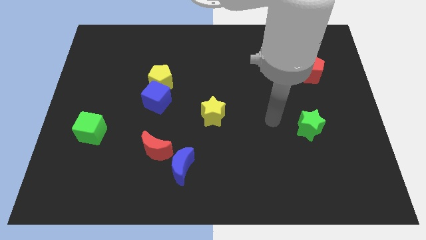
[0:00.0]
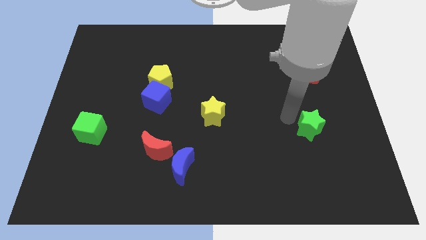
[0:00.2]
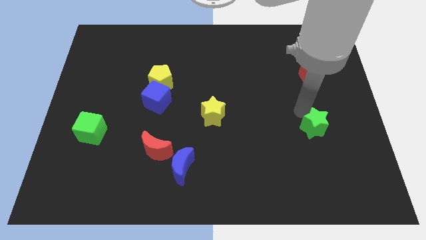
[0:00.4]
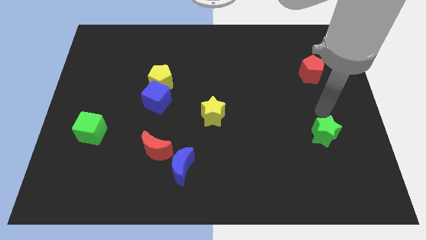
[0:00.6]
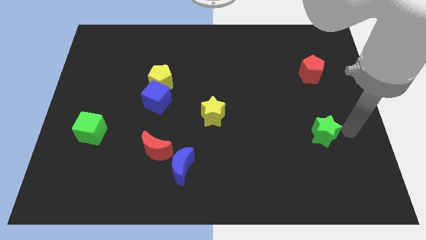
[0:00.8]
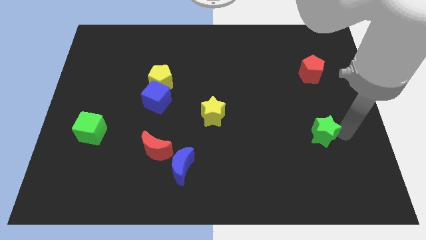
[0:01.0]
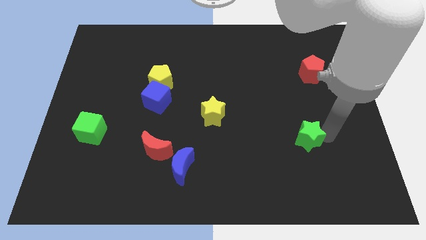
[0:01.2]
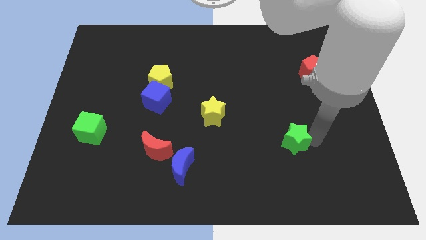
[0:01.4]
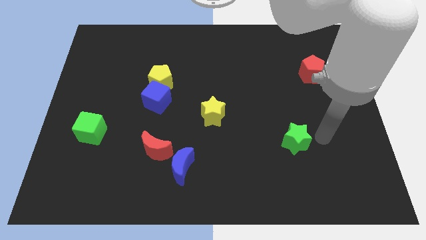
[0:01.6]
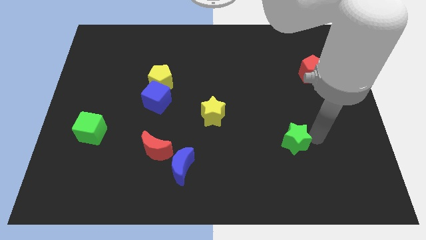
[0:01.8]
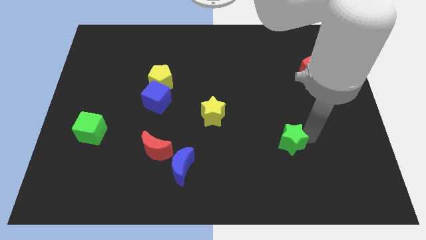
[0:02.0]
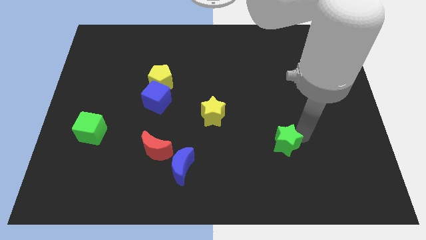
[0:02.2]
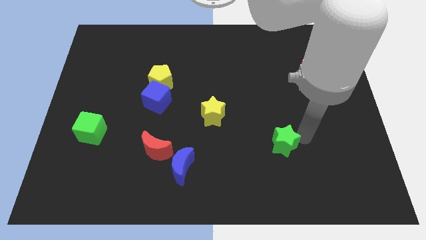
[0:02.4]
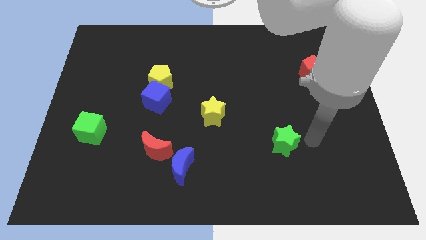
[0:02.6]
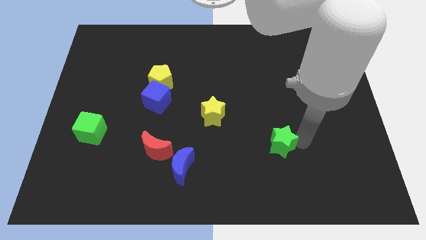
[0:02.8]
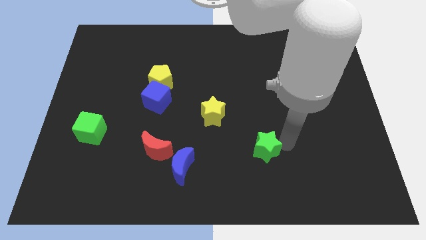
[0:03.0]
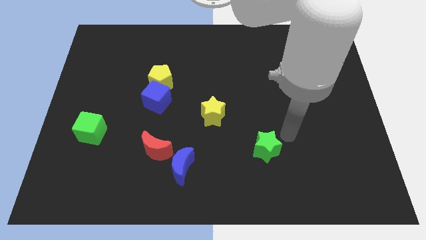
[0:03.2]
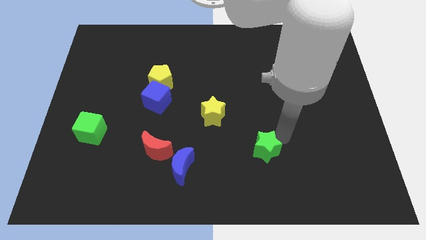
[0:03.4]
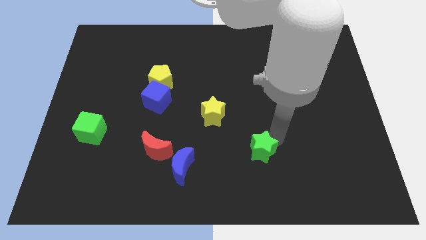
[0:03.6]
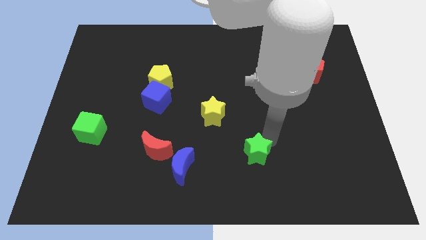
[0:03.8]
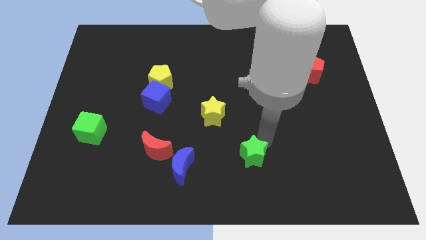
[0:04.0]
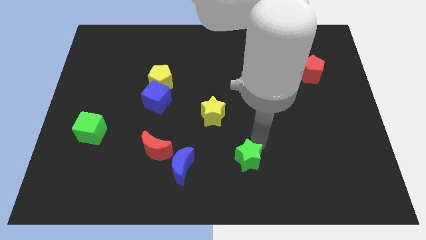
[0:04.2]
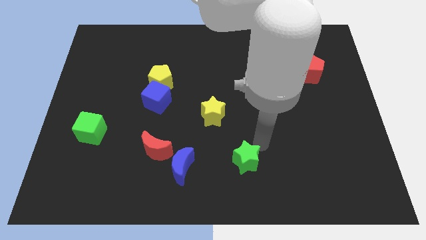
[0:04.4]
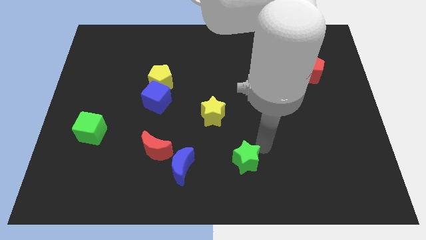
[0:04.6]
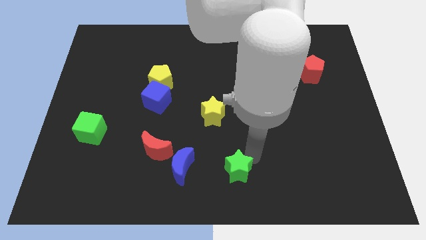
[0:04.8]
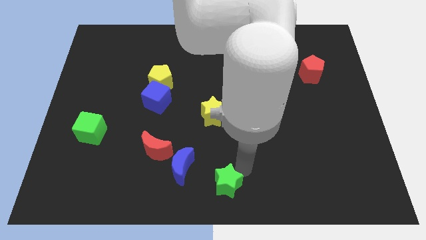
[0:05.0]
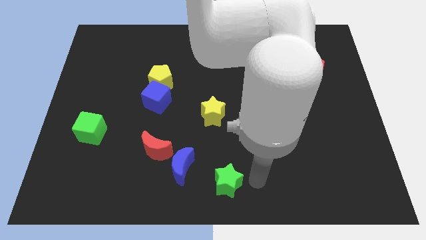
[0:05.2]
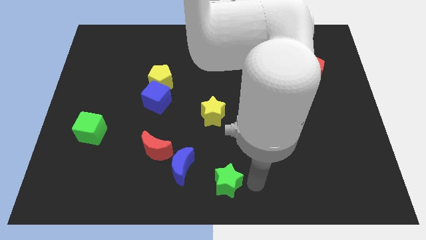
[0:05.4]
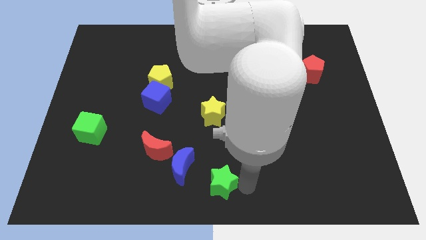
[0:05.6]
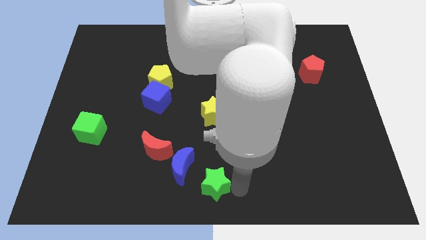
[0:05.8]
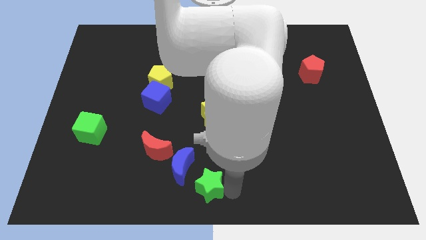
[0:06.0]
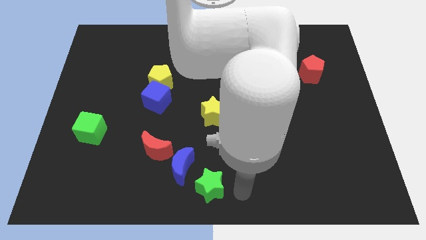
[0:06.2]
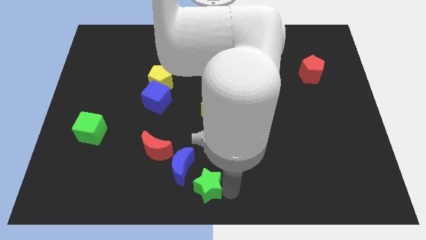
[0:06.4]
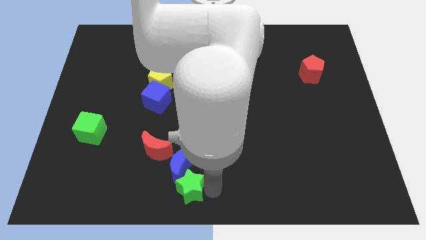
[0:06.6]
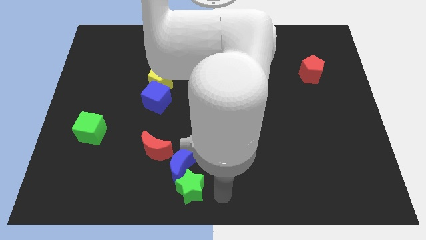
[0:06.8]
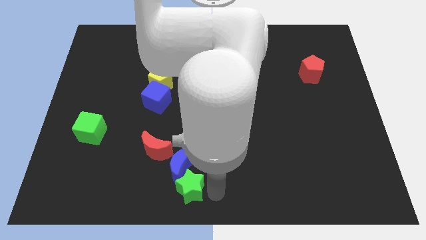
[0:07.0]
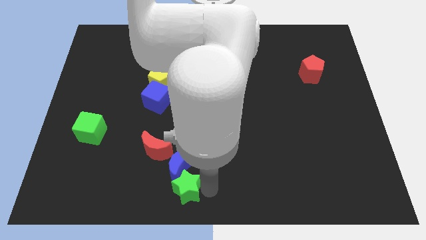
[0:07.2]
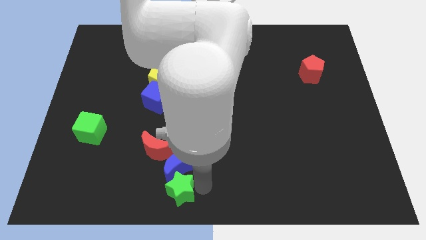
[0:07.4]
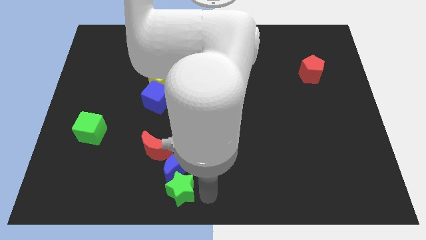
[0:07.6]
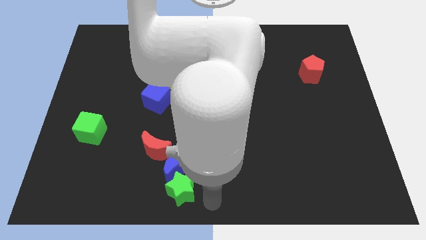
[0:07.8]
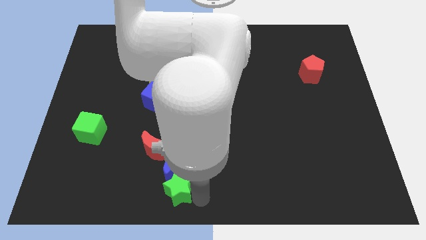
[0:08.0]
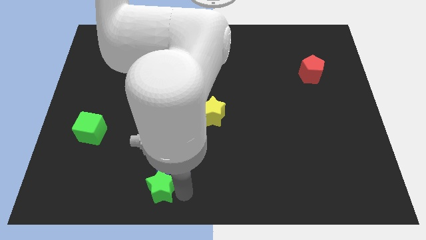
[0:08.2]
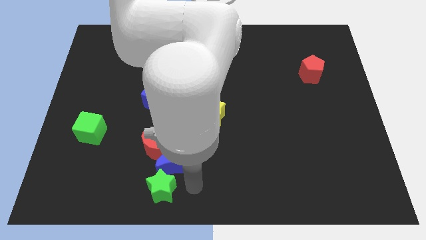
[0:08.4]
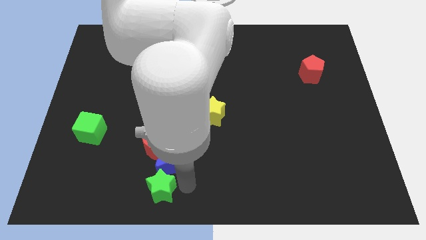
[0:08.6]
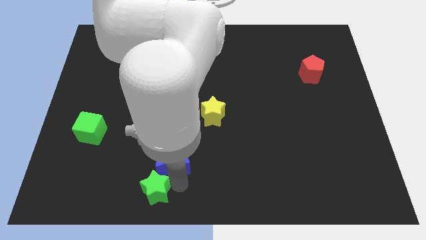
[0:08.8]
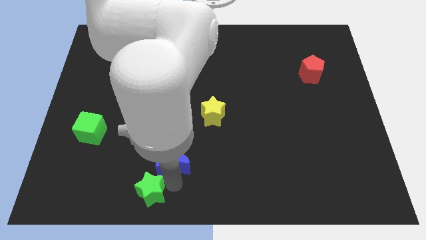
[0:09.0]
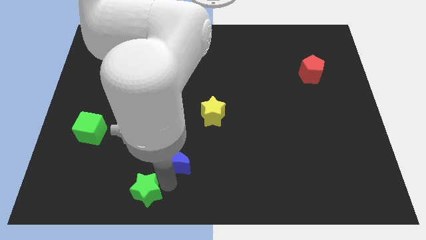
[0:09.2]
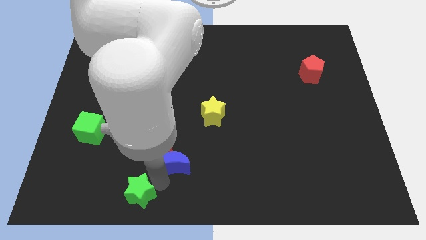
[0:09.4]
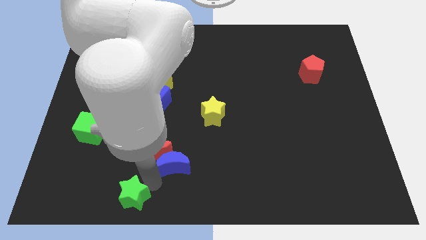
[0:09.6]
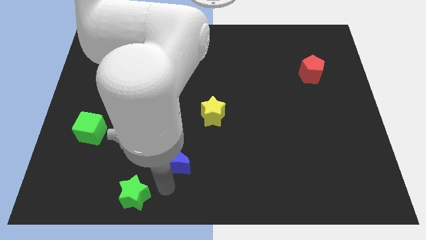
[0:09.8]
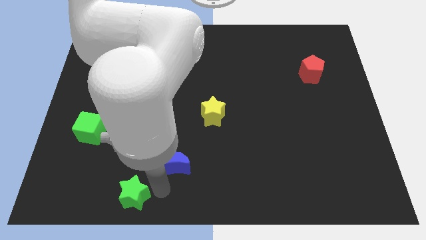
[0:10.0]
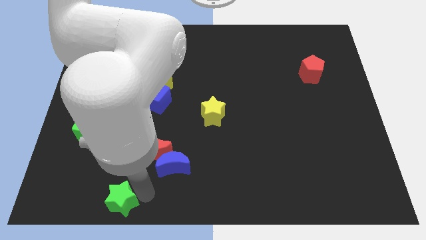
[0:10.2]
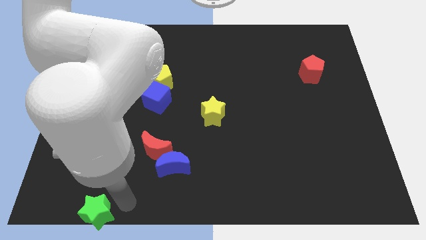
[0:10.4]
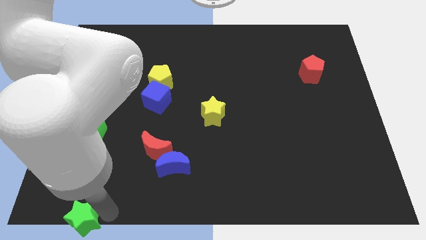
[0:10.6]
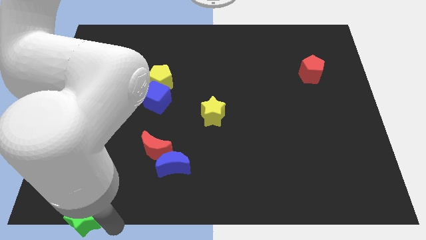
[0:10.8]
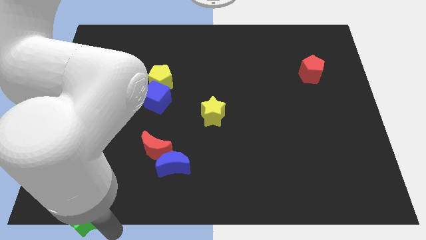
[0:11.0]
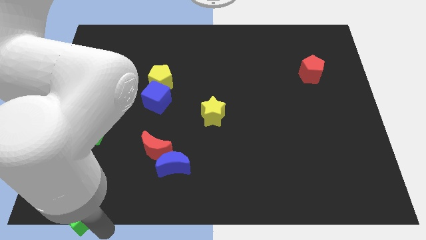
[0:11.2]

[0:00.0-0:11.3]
put the green star to the bottom left of the board

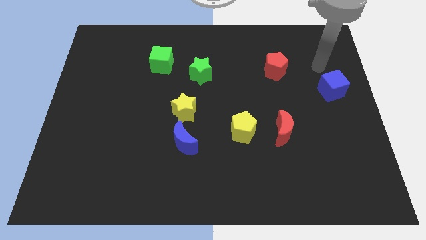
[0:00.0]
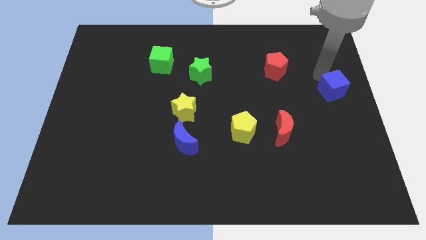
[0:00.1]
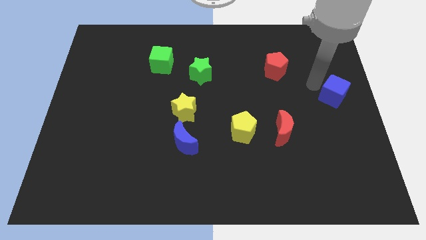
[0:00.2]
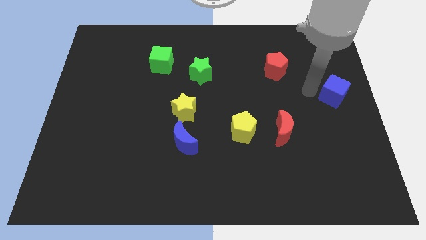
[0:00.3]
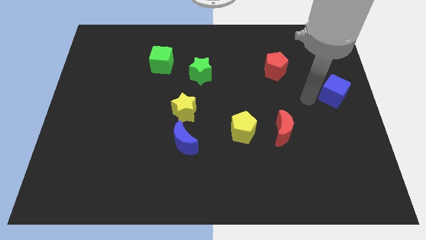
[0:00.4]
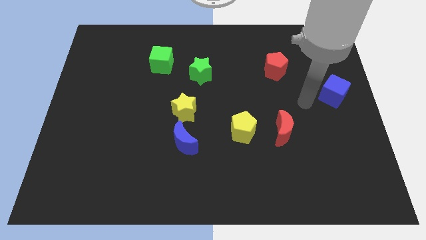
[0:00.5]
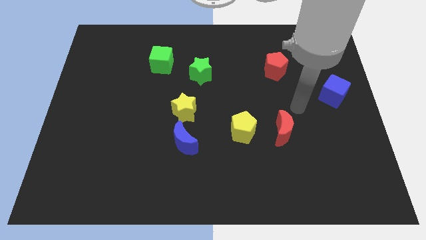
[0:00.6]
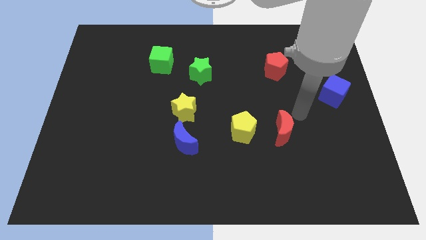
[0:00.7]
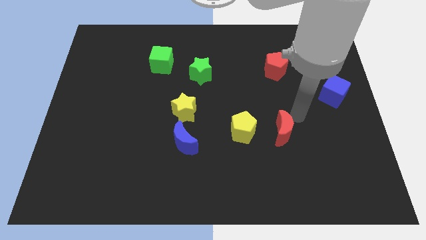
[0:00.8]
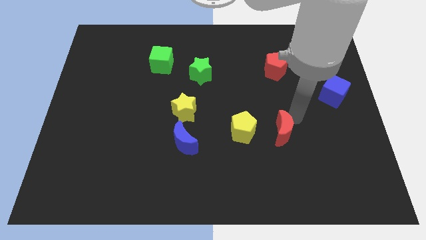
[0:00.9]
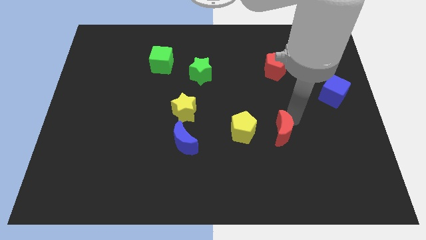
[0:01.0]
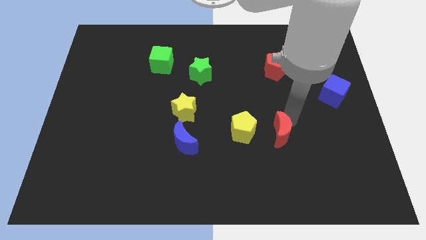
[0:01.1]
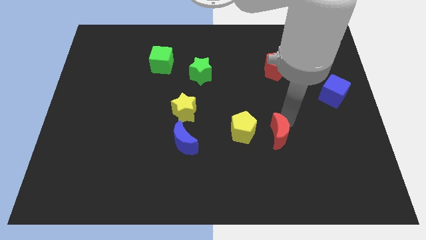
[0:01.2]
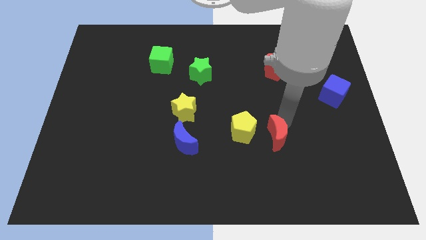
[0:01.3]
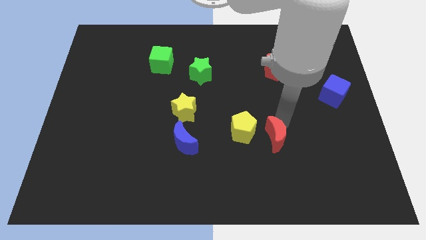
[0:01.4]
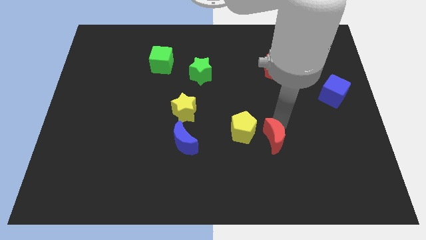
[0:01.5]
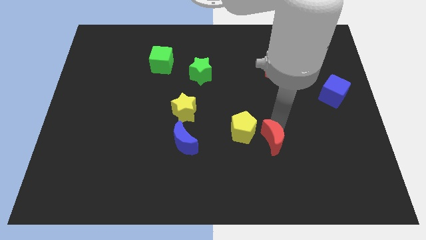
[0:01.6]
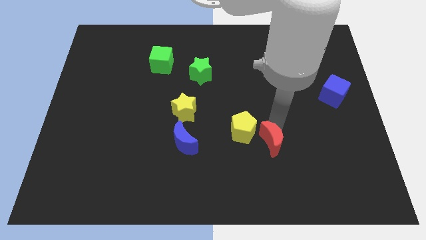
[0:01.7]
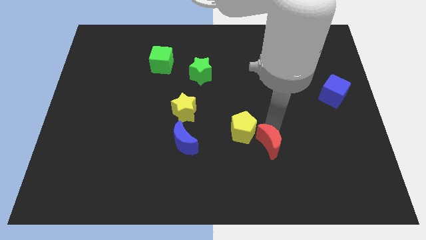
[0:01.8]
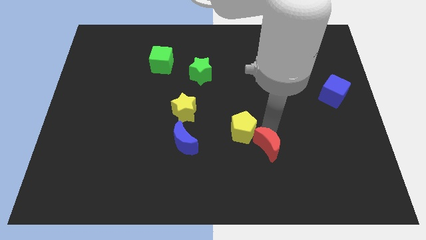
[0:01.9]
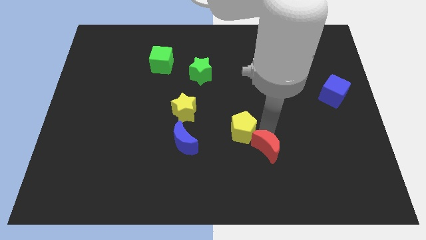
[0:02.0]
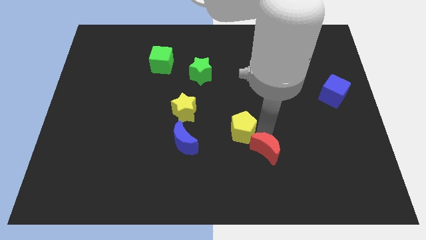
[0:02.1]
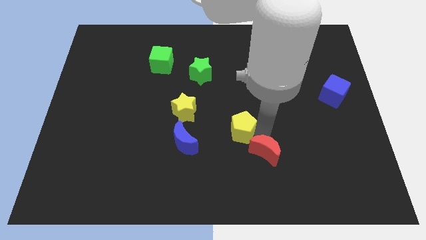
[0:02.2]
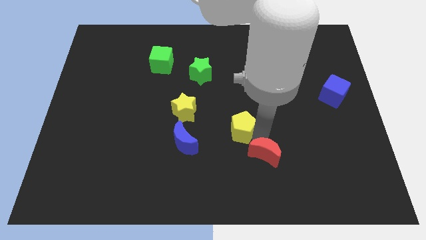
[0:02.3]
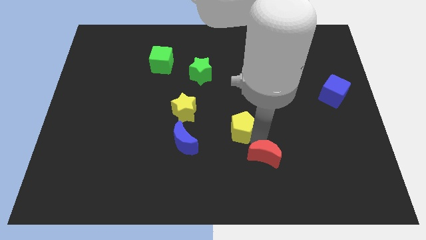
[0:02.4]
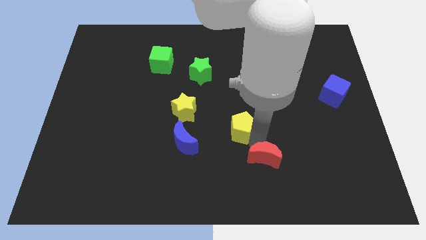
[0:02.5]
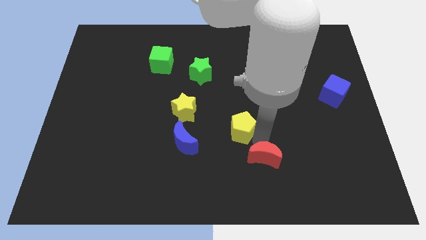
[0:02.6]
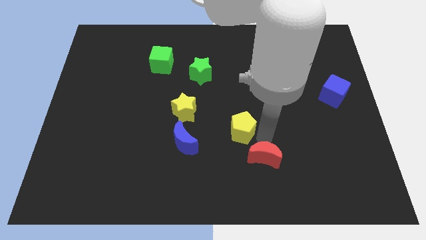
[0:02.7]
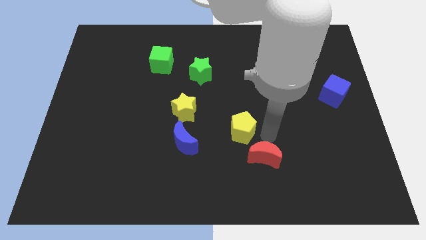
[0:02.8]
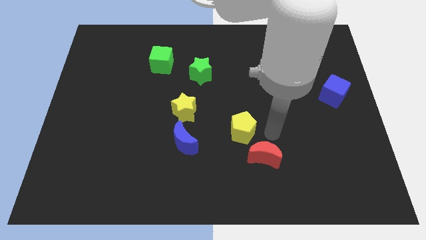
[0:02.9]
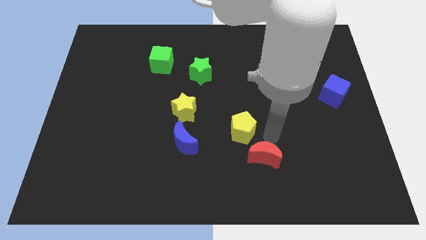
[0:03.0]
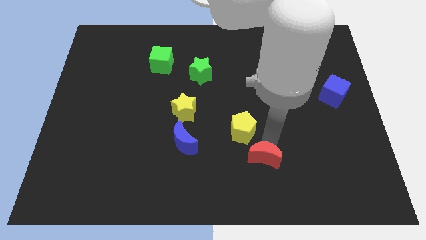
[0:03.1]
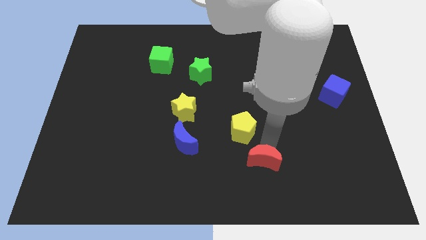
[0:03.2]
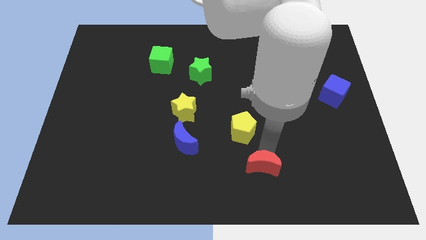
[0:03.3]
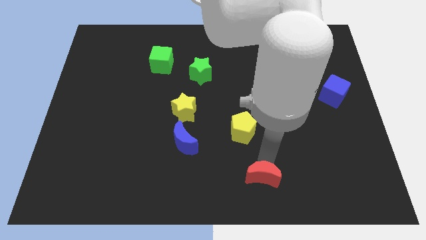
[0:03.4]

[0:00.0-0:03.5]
push the red moon to the bottom side
